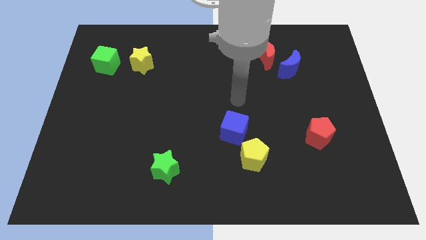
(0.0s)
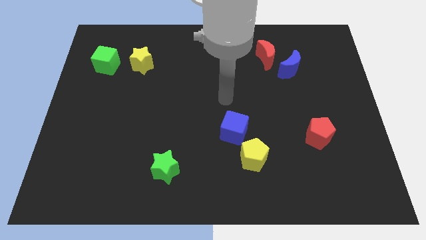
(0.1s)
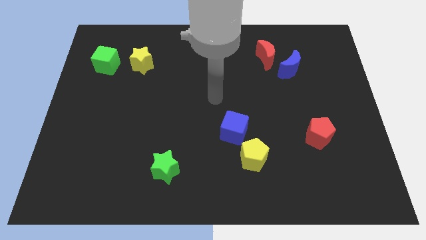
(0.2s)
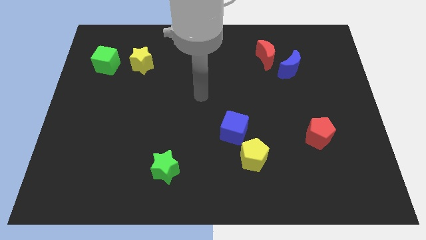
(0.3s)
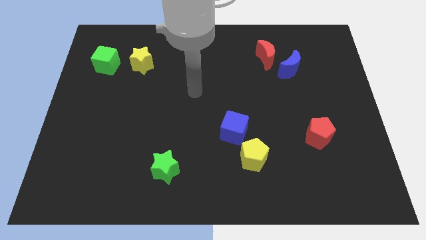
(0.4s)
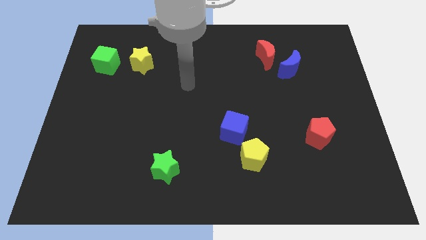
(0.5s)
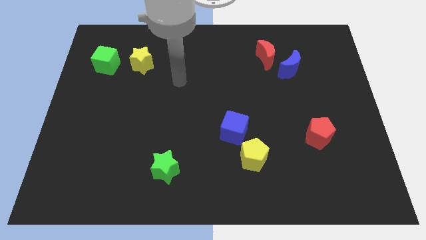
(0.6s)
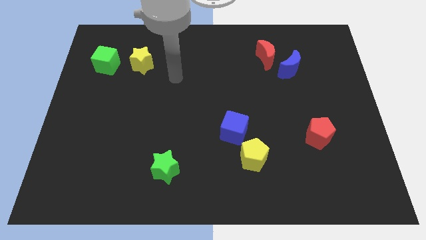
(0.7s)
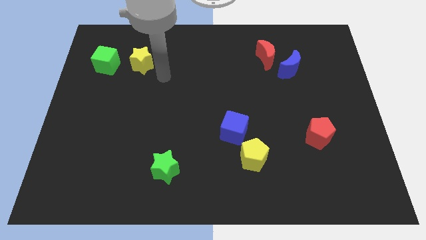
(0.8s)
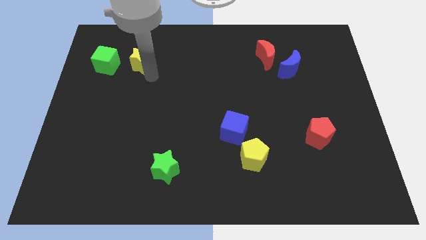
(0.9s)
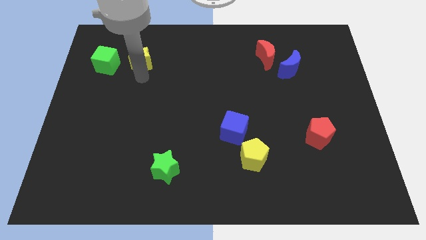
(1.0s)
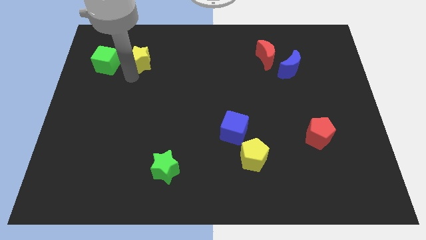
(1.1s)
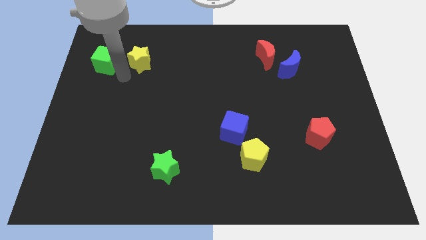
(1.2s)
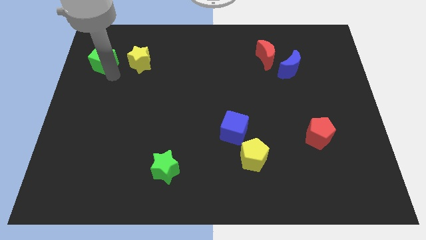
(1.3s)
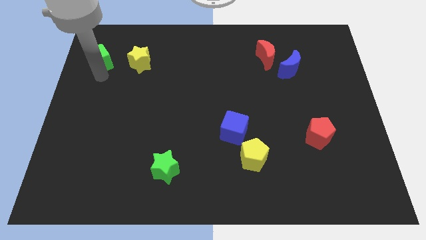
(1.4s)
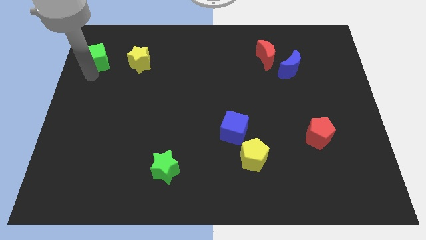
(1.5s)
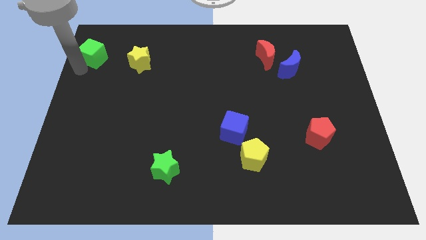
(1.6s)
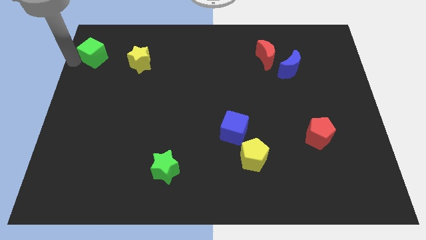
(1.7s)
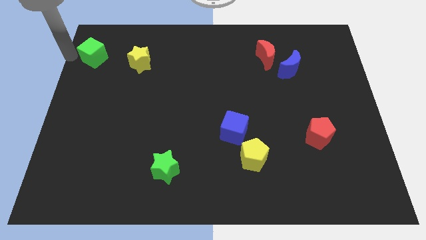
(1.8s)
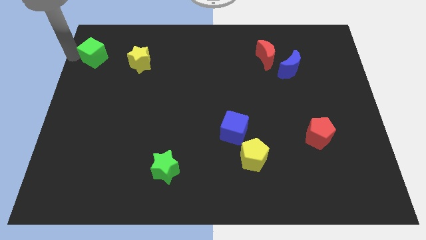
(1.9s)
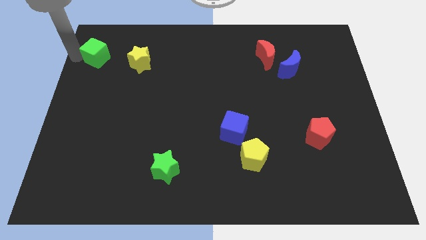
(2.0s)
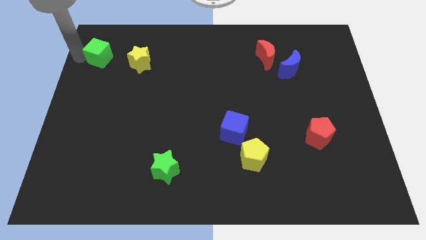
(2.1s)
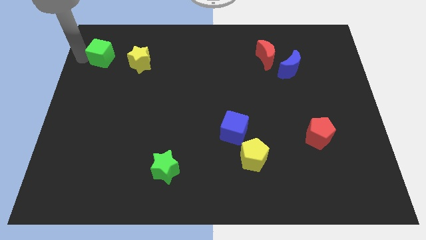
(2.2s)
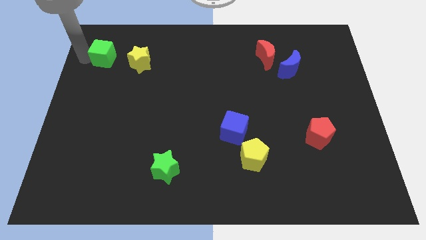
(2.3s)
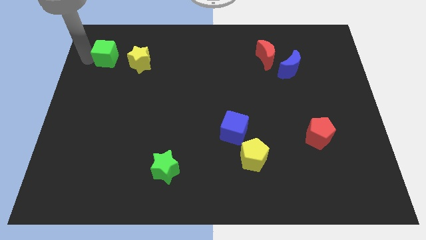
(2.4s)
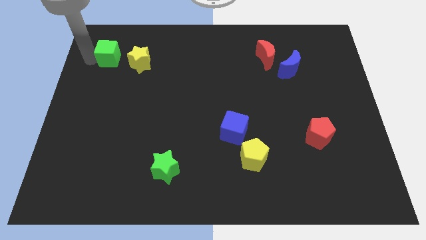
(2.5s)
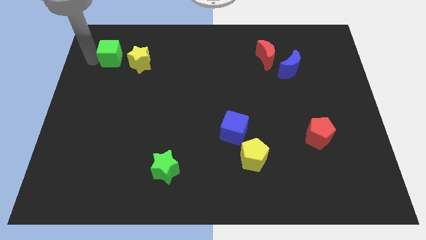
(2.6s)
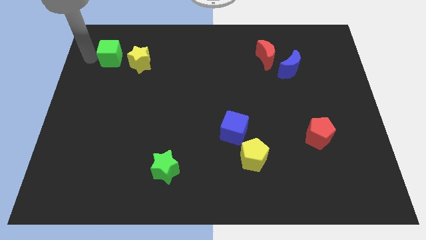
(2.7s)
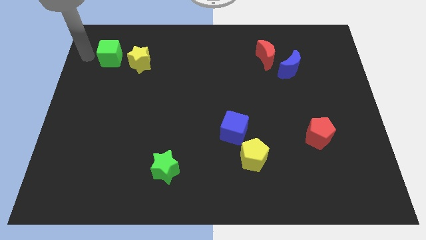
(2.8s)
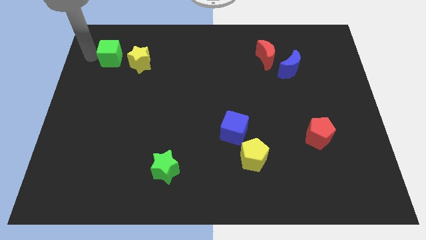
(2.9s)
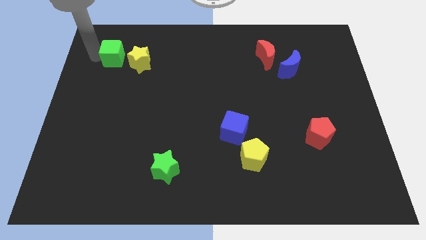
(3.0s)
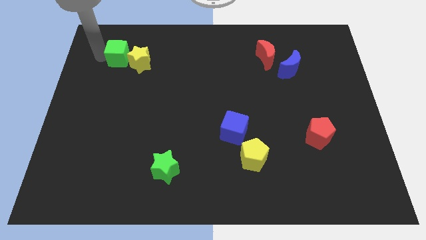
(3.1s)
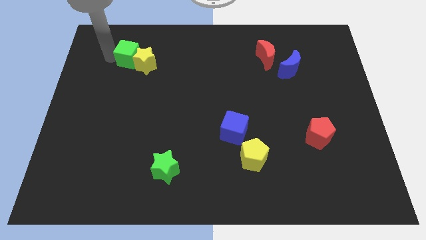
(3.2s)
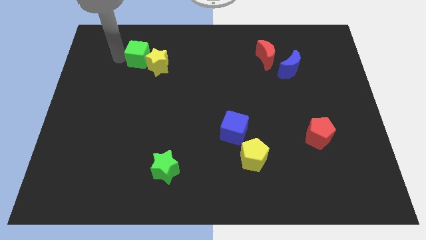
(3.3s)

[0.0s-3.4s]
push the green cube right somewhat

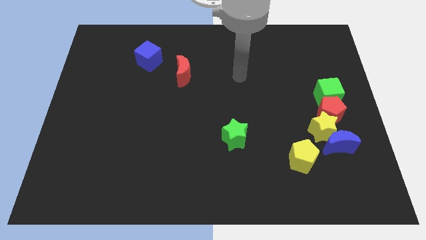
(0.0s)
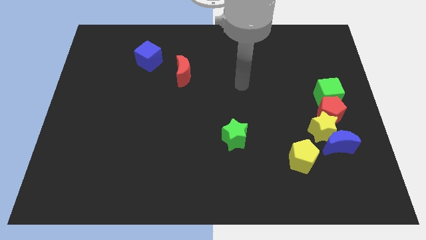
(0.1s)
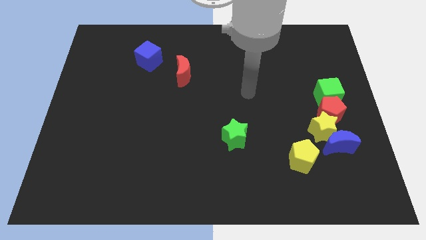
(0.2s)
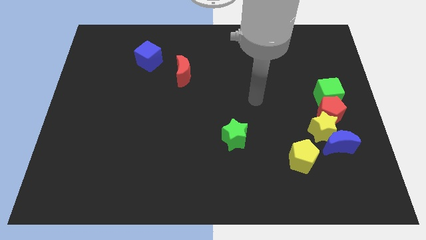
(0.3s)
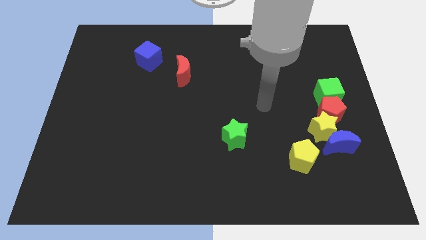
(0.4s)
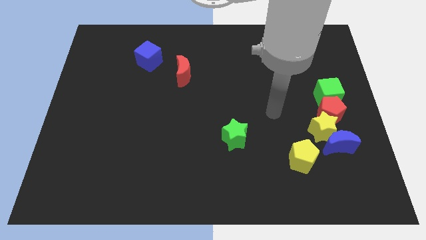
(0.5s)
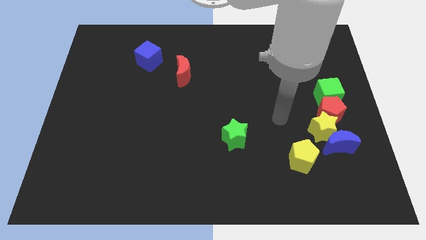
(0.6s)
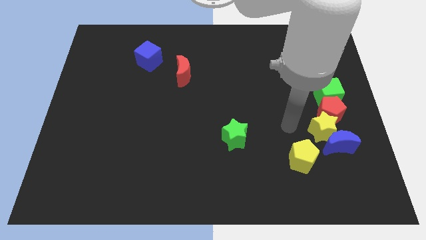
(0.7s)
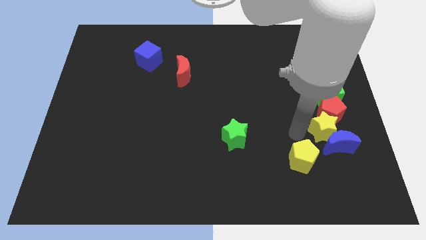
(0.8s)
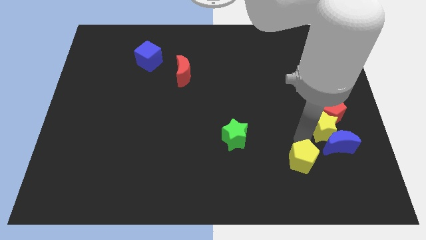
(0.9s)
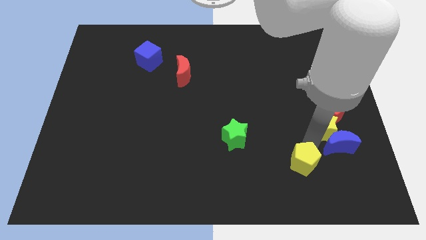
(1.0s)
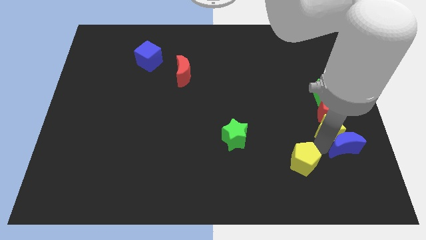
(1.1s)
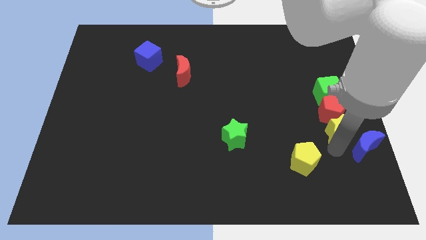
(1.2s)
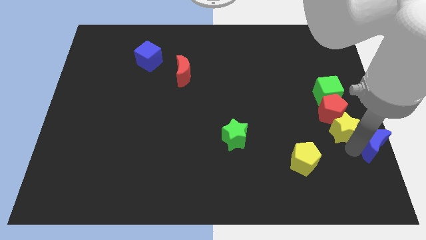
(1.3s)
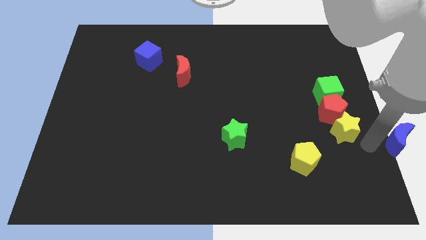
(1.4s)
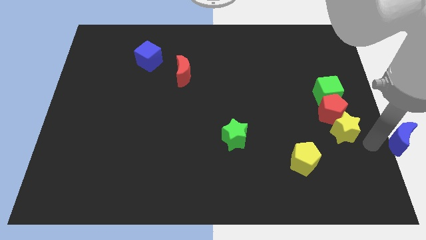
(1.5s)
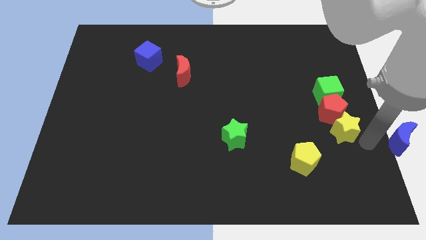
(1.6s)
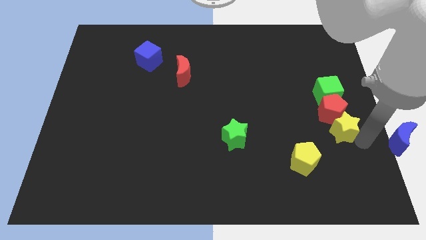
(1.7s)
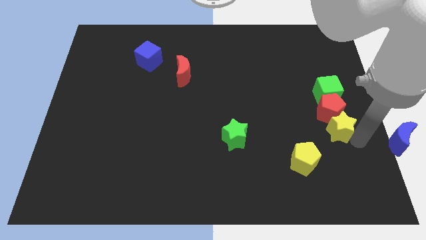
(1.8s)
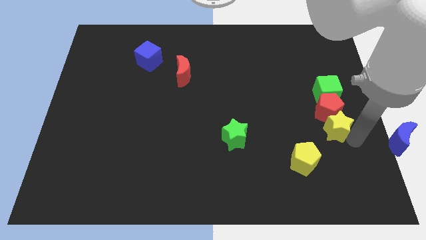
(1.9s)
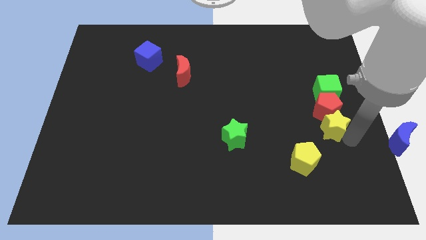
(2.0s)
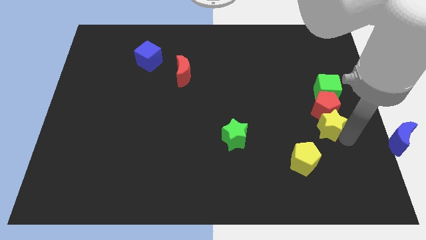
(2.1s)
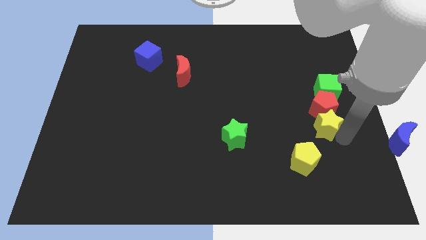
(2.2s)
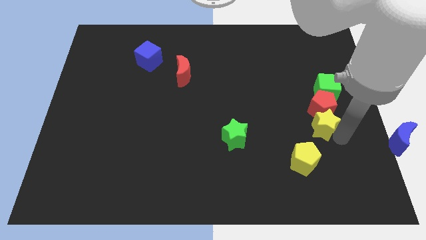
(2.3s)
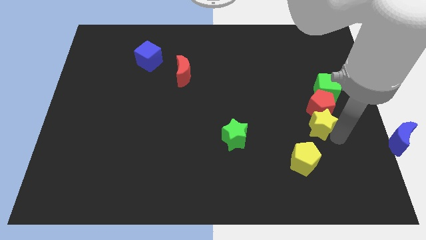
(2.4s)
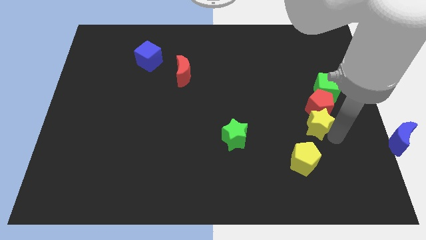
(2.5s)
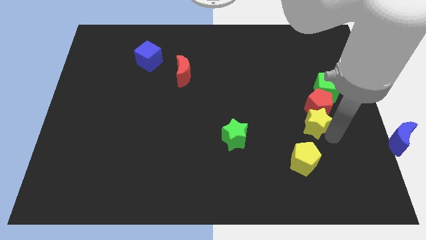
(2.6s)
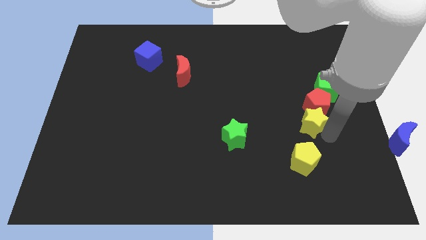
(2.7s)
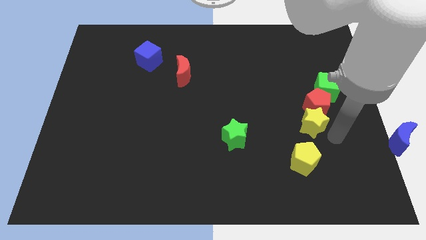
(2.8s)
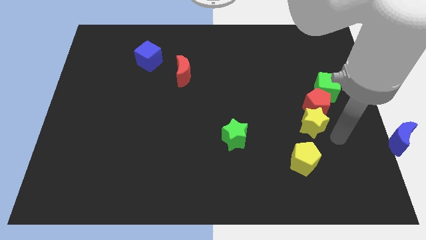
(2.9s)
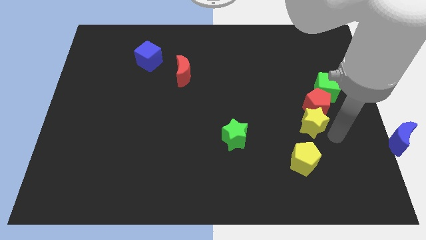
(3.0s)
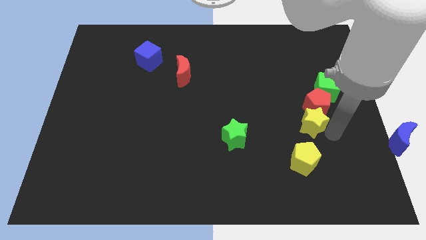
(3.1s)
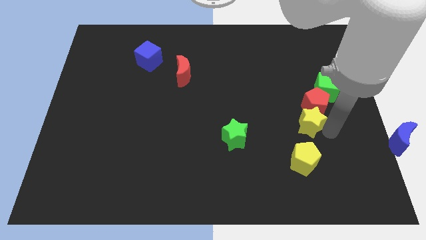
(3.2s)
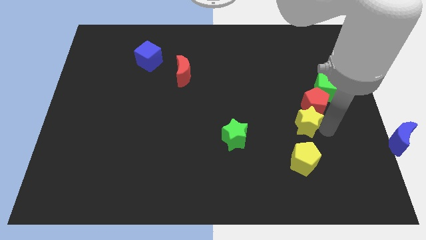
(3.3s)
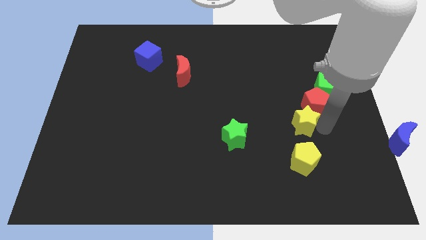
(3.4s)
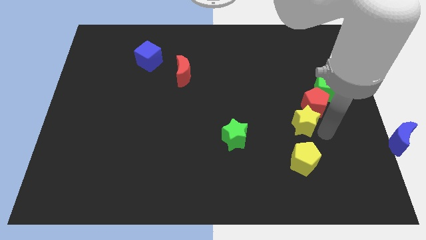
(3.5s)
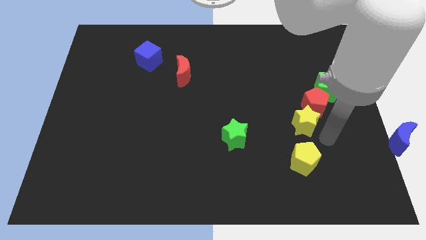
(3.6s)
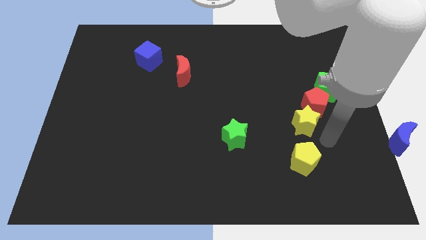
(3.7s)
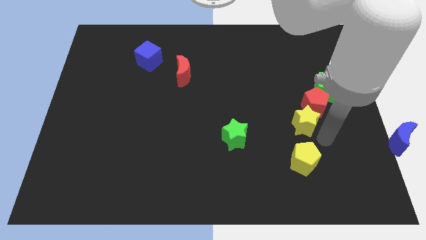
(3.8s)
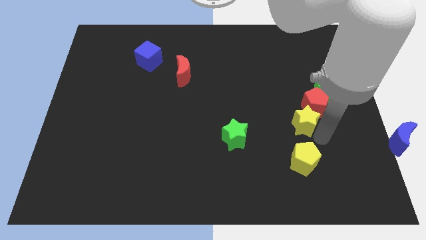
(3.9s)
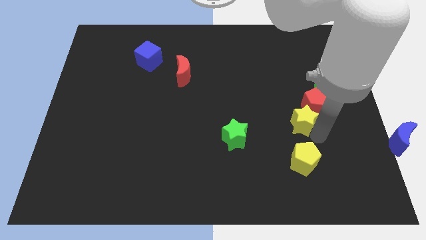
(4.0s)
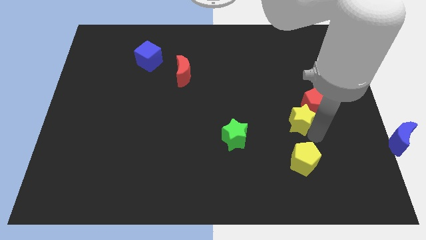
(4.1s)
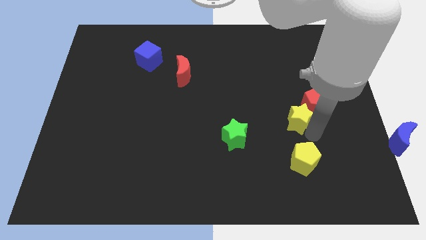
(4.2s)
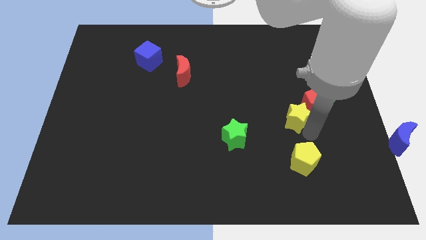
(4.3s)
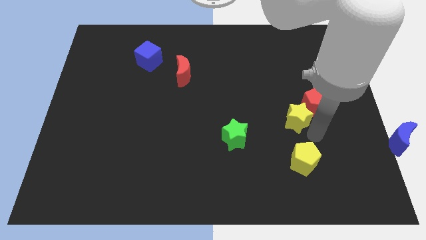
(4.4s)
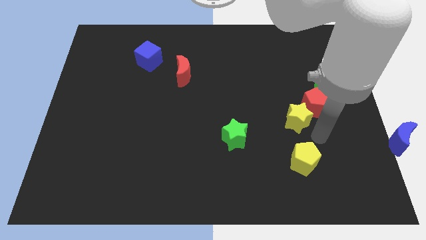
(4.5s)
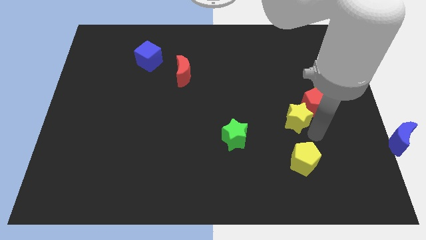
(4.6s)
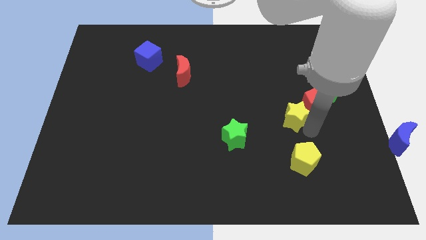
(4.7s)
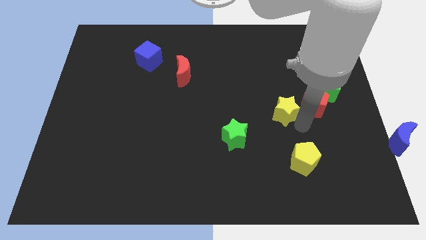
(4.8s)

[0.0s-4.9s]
move the yellow star somewhat diagonally up and to the left
